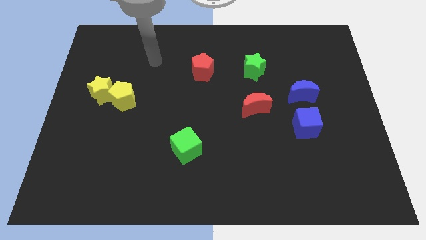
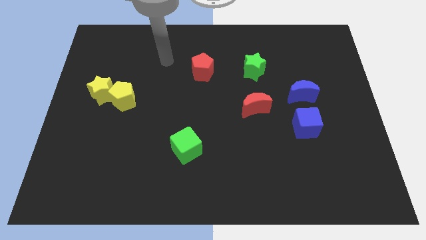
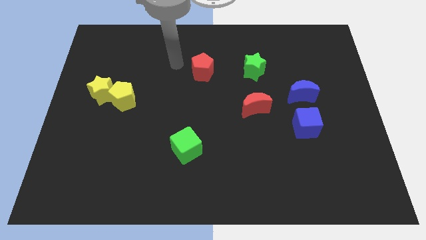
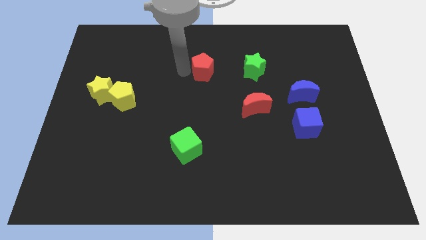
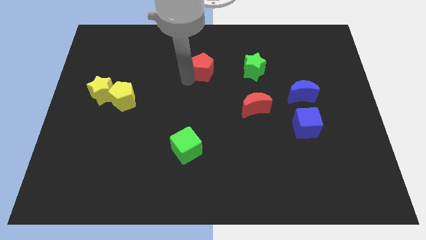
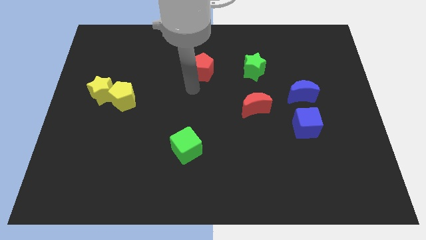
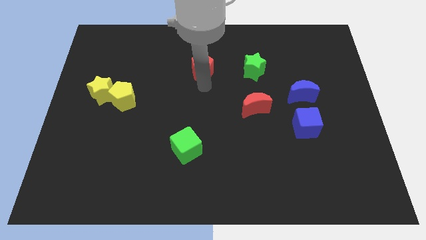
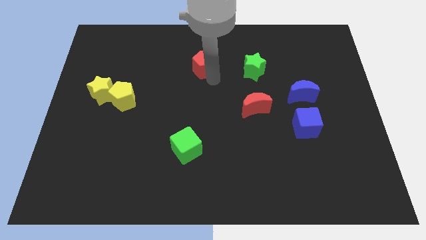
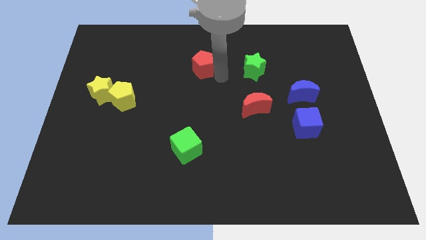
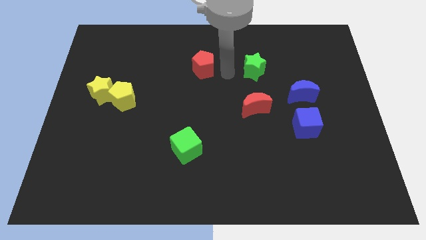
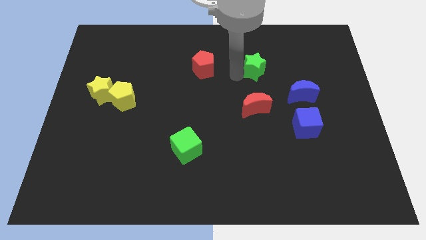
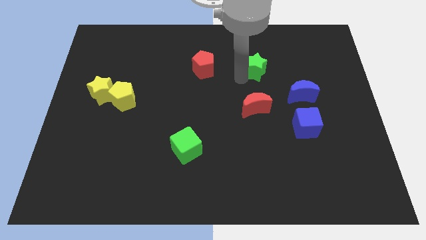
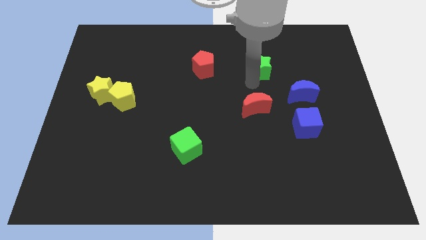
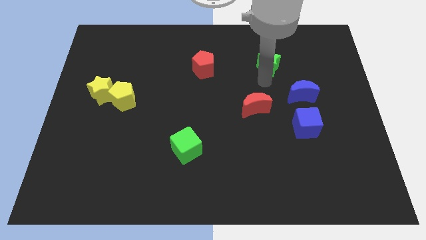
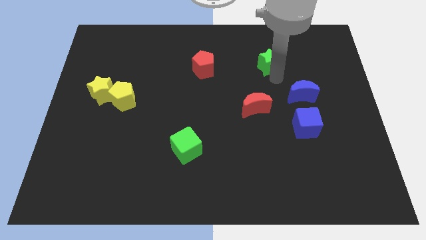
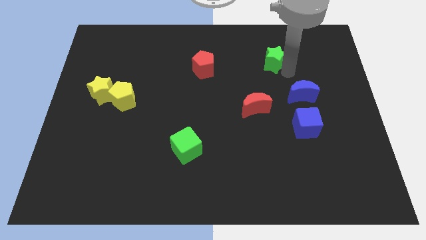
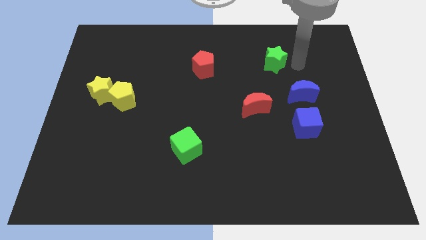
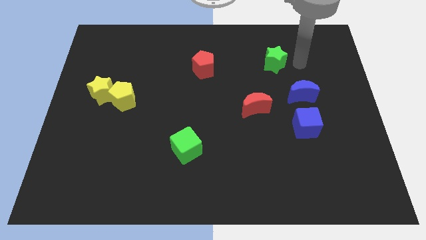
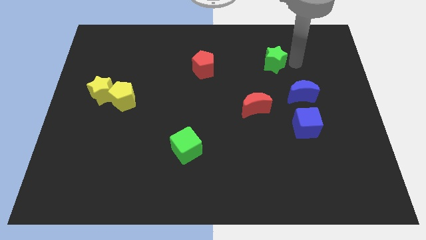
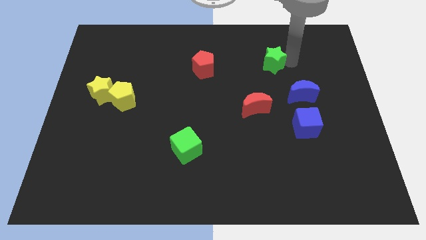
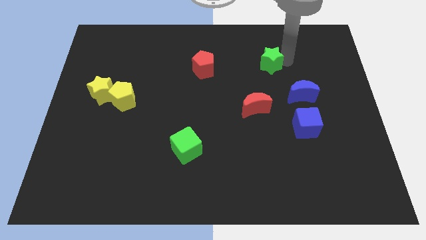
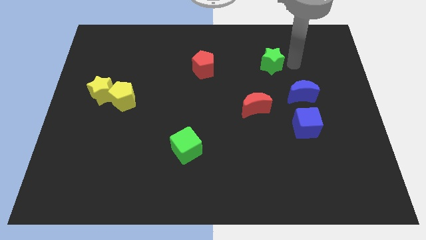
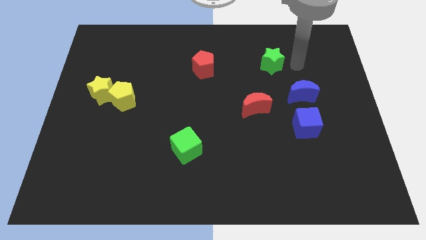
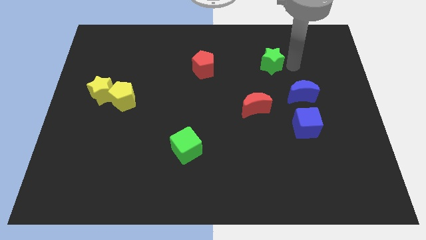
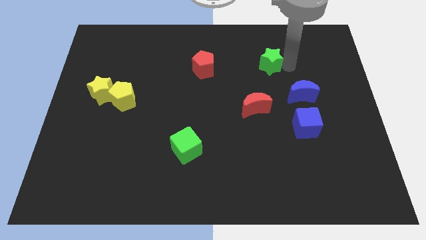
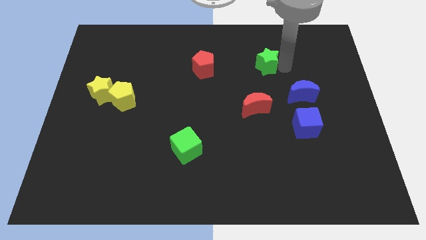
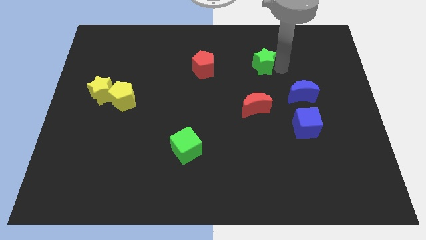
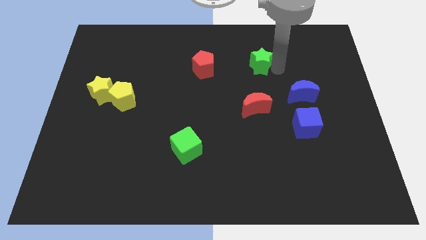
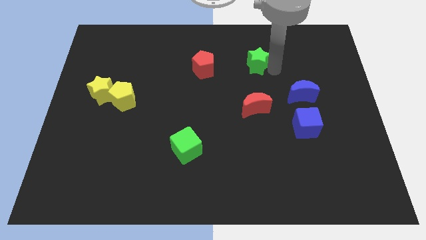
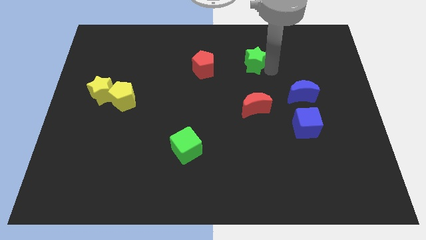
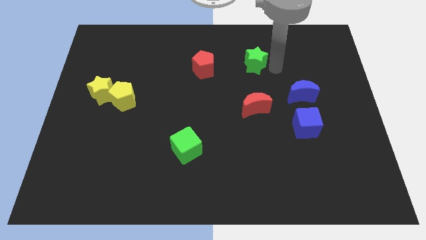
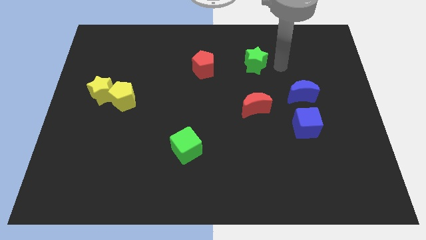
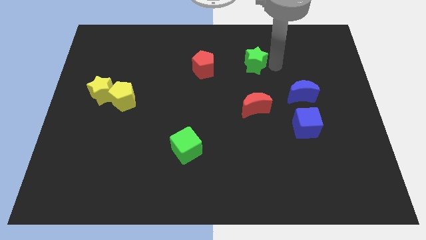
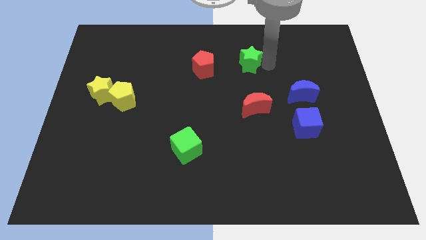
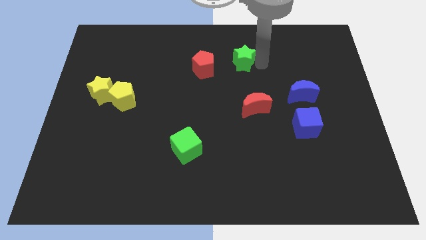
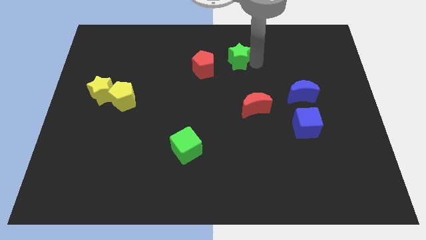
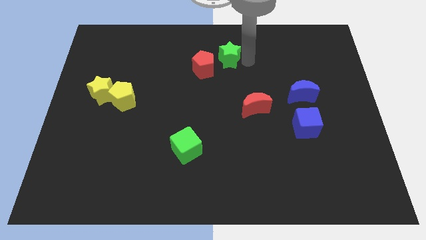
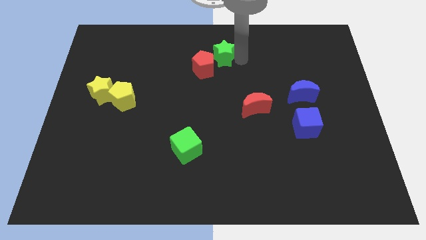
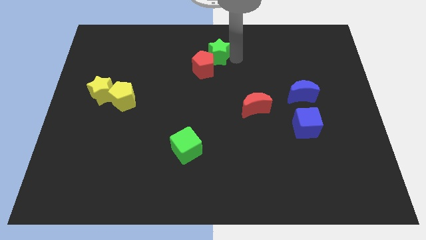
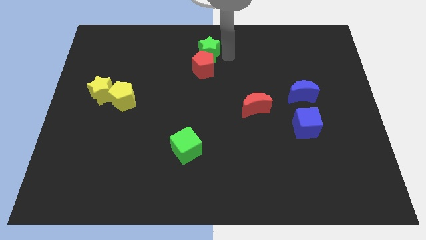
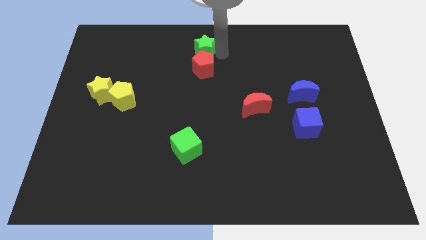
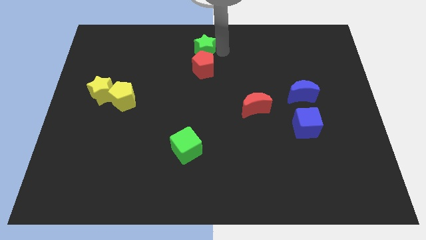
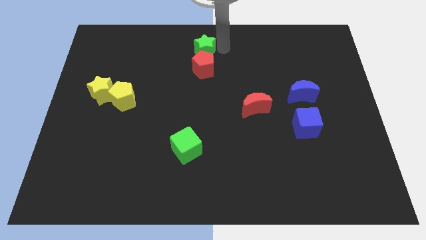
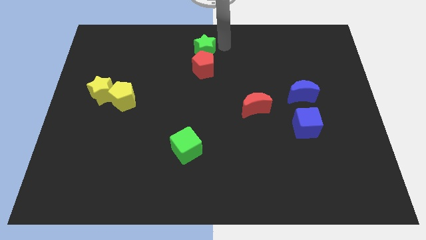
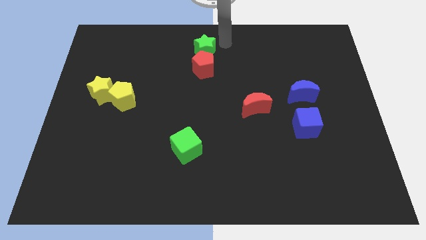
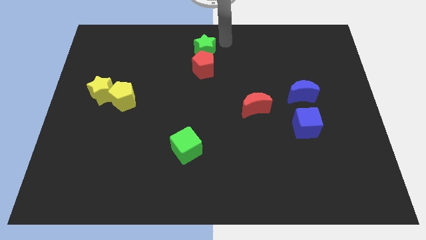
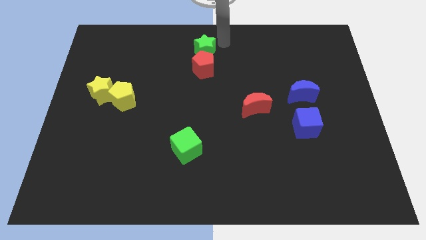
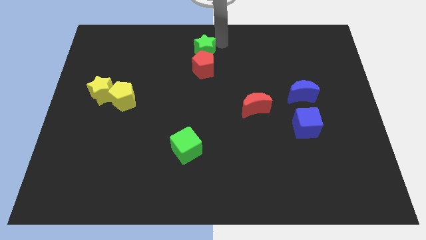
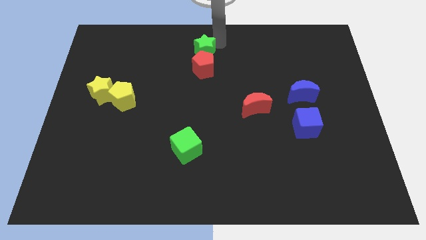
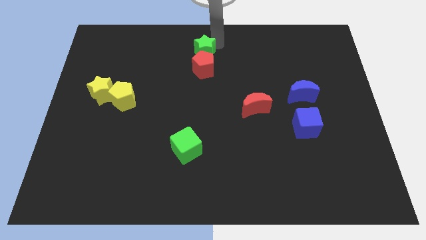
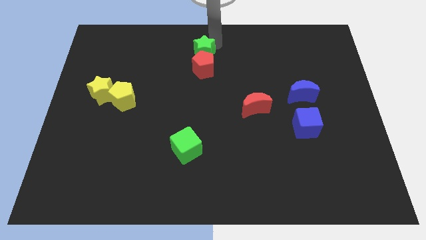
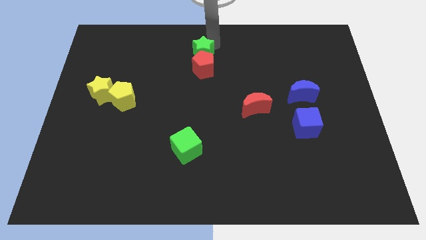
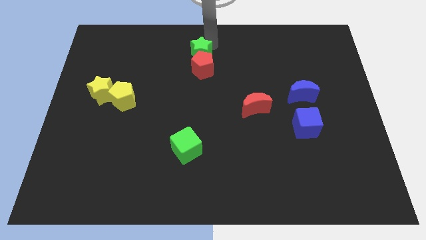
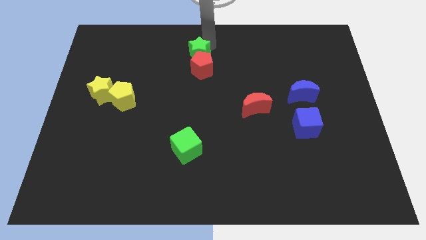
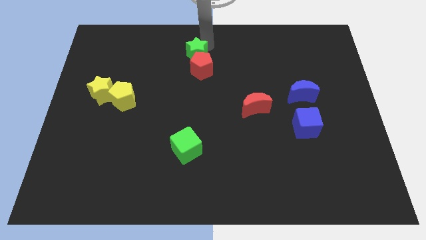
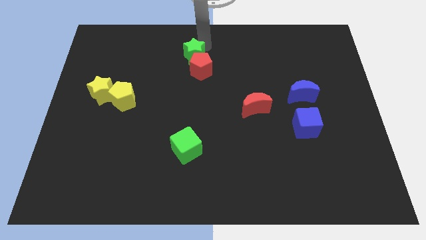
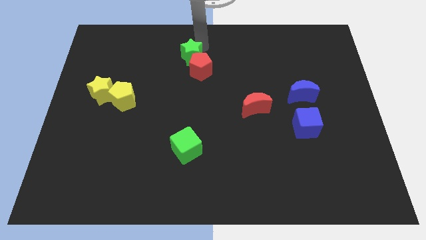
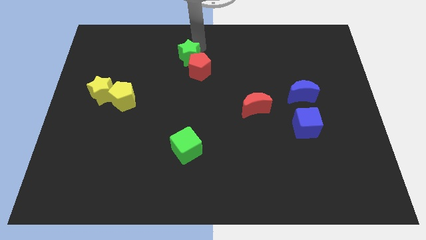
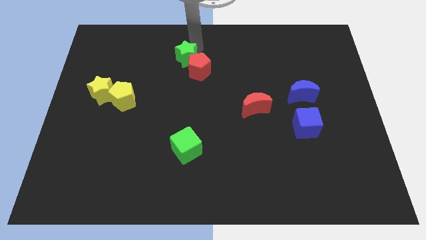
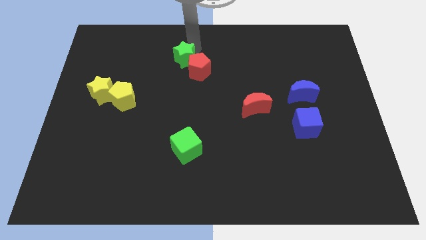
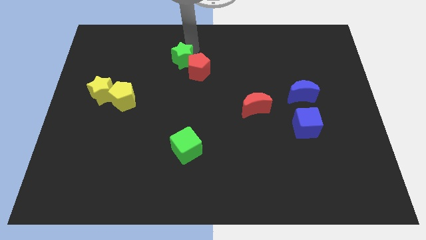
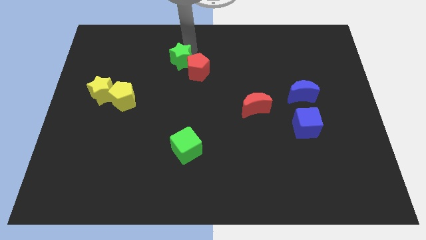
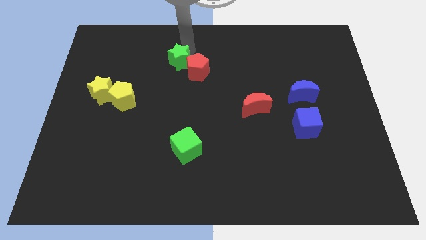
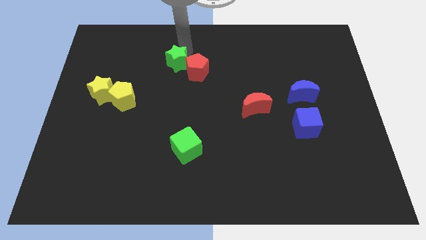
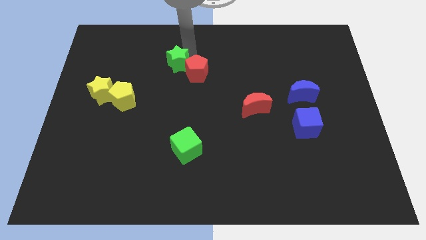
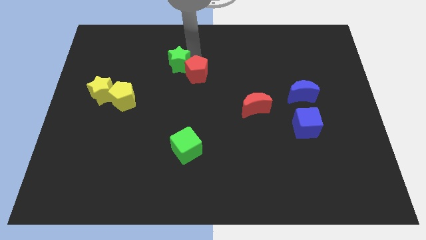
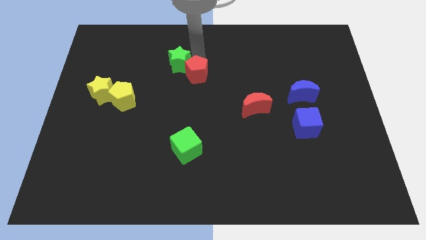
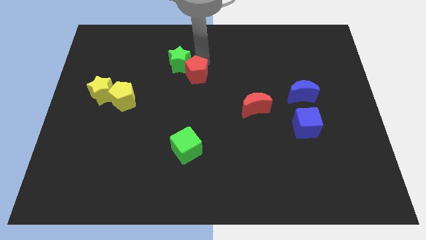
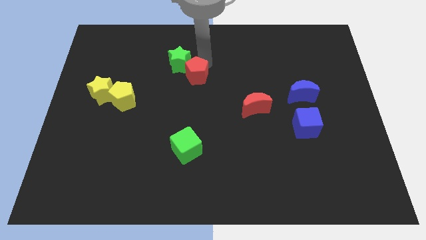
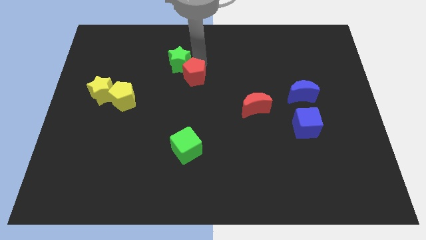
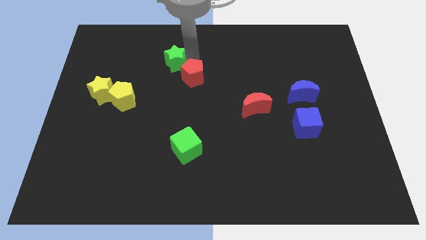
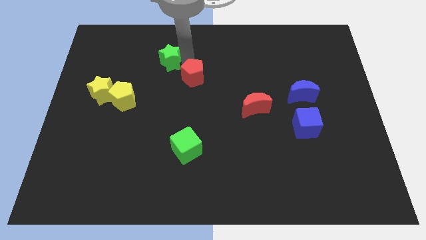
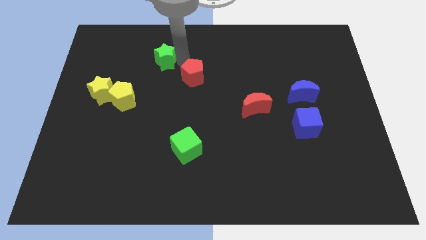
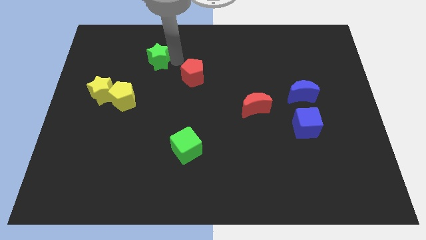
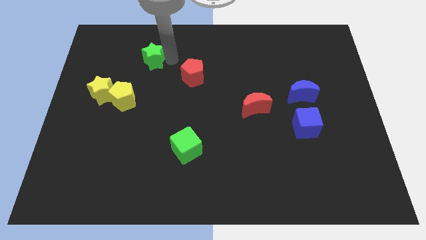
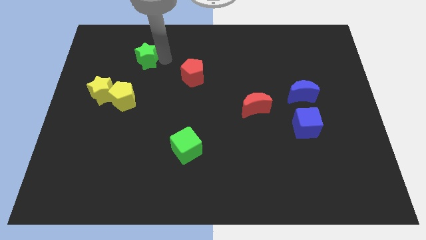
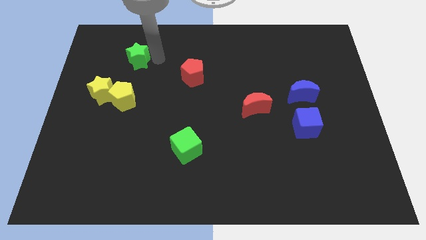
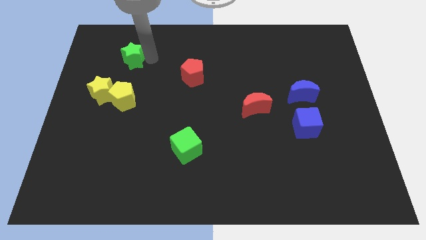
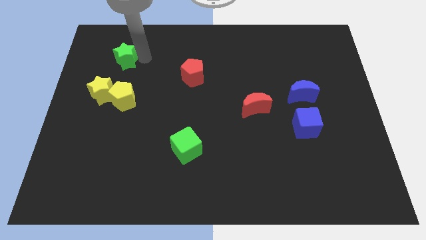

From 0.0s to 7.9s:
put the green star to the top of the yellow star
